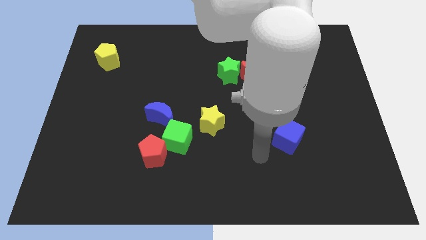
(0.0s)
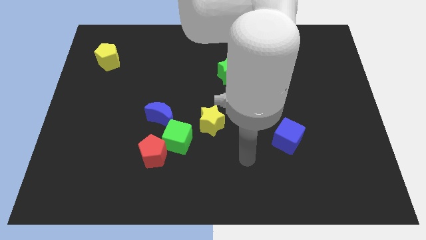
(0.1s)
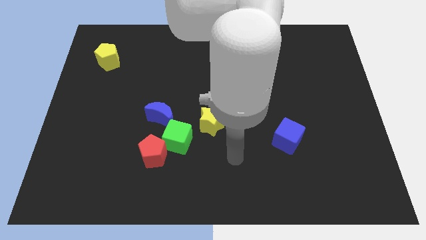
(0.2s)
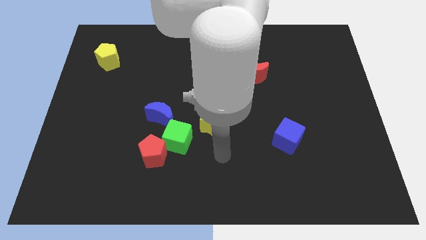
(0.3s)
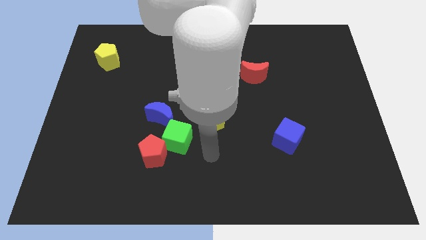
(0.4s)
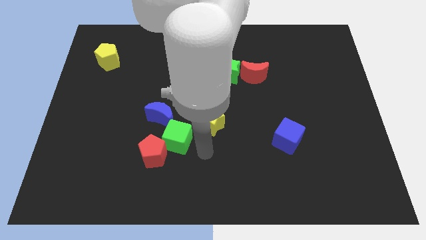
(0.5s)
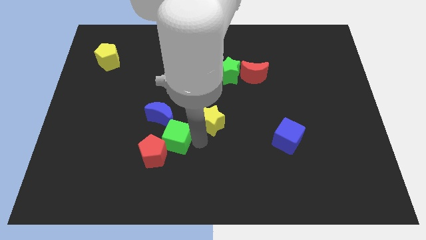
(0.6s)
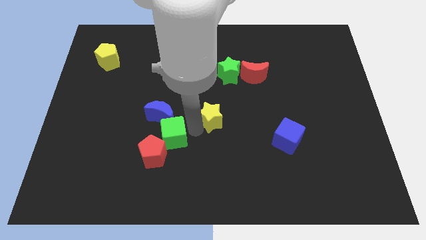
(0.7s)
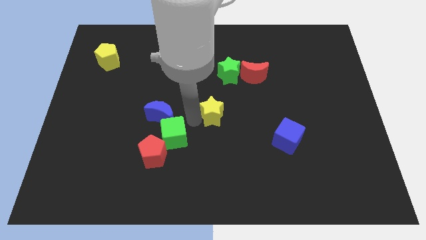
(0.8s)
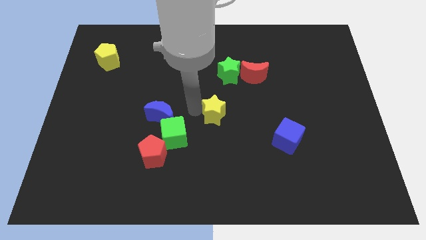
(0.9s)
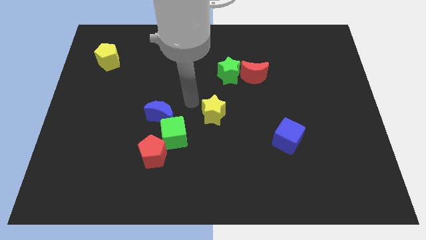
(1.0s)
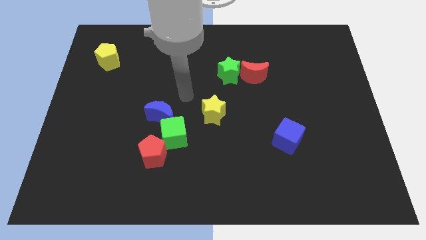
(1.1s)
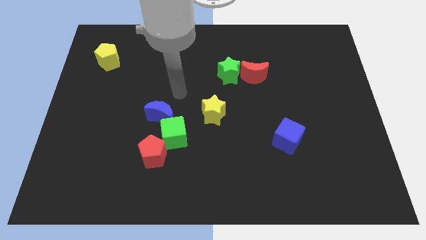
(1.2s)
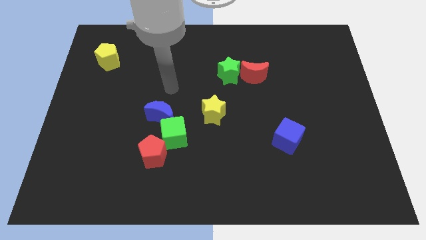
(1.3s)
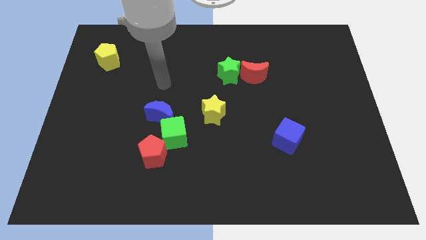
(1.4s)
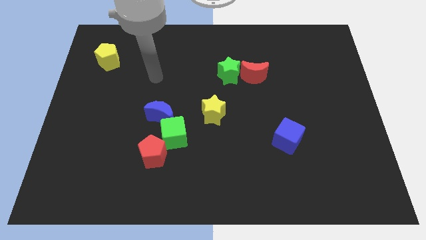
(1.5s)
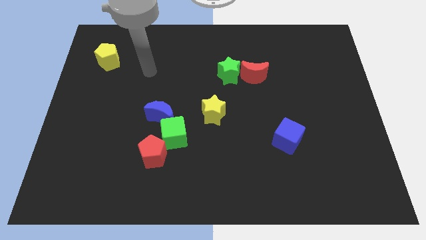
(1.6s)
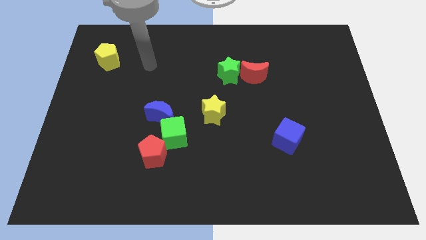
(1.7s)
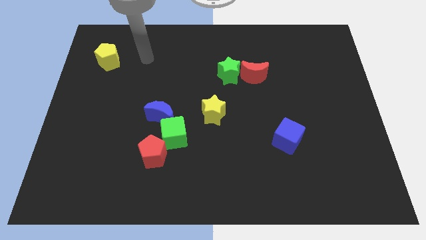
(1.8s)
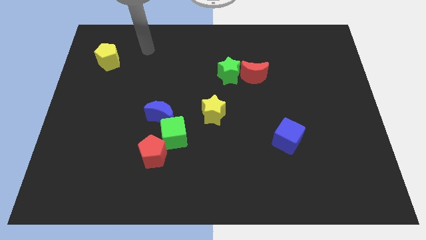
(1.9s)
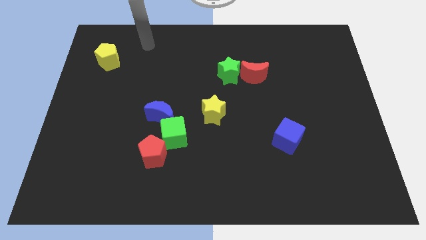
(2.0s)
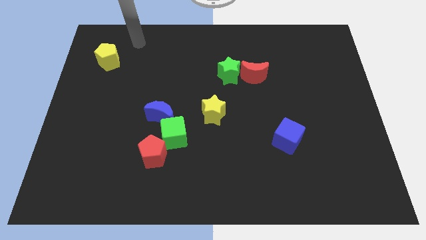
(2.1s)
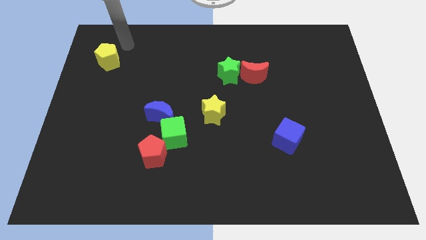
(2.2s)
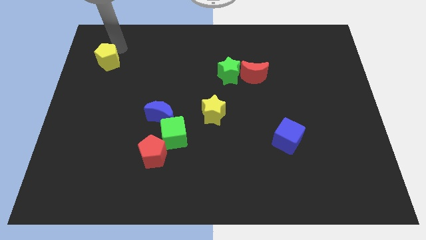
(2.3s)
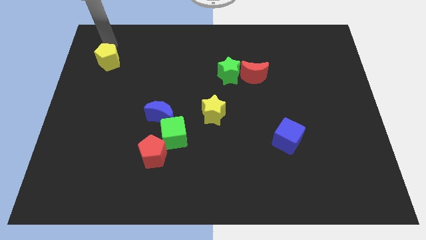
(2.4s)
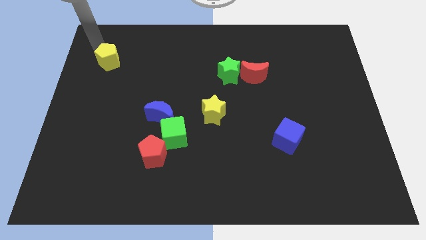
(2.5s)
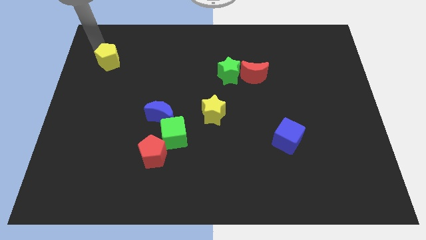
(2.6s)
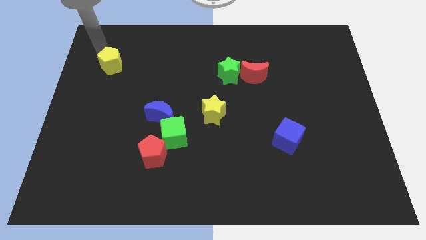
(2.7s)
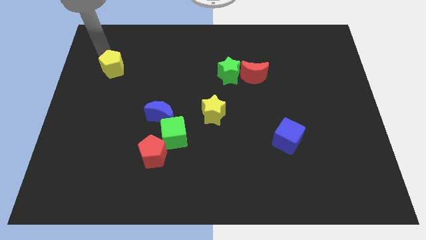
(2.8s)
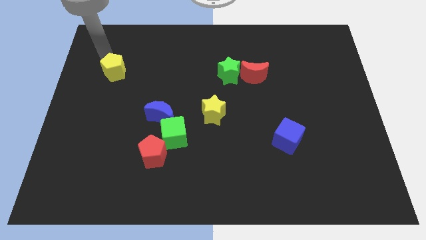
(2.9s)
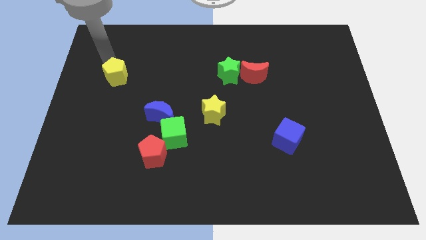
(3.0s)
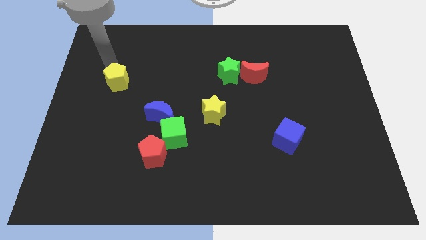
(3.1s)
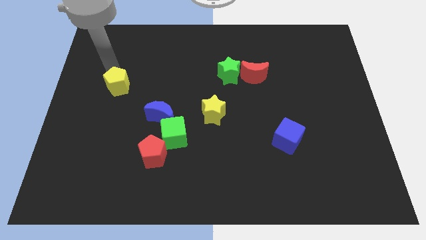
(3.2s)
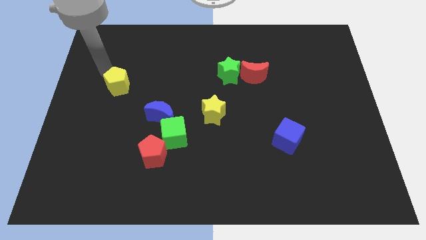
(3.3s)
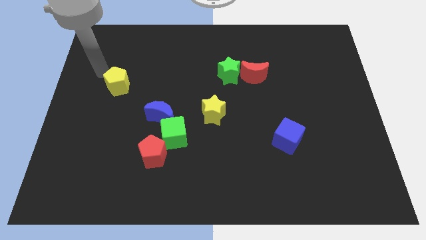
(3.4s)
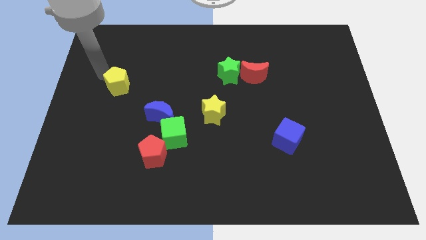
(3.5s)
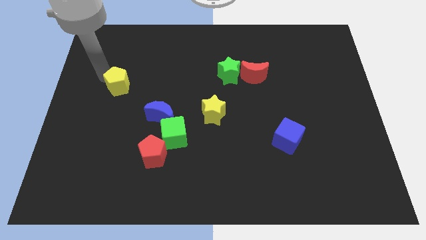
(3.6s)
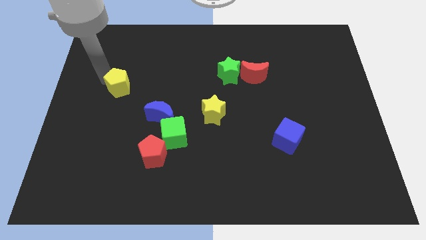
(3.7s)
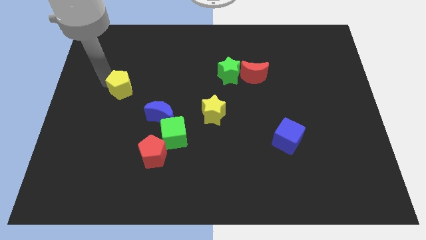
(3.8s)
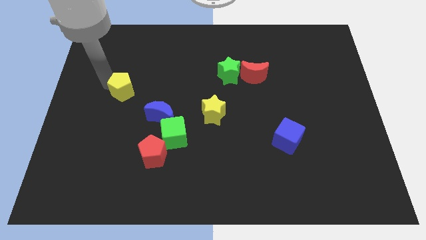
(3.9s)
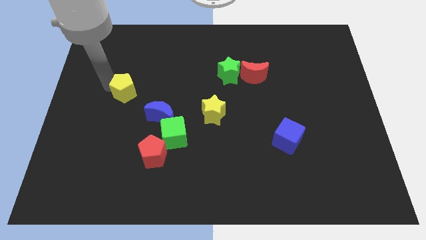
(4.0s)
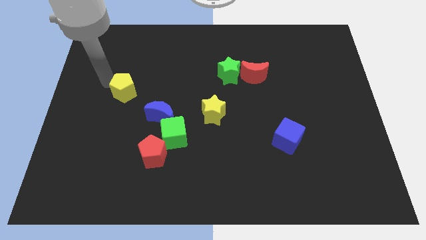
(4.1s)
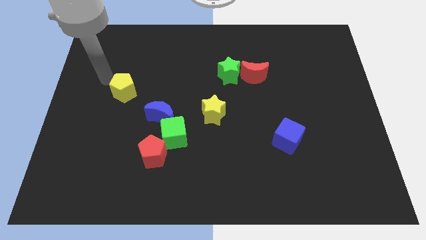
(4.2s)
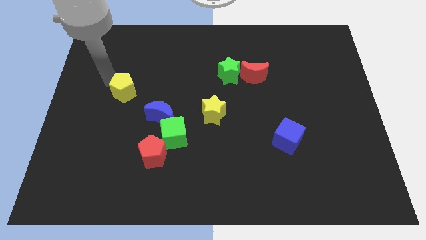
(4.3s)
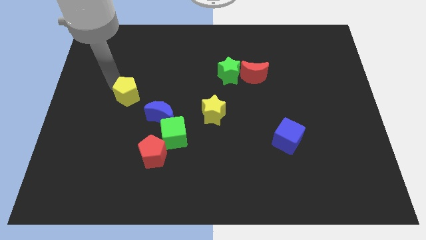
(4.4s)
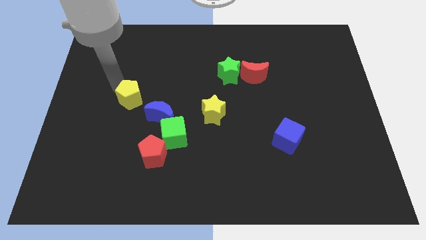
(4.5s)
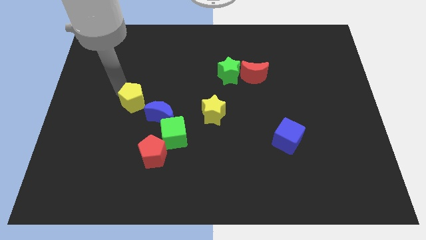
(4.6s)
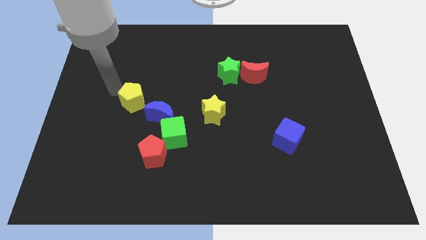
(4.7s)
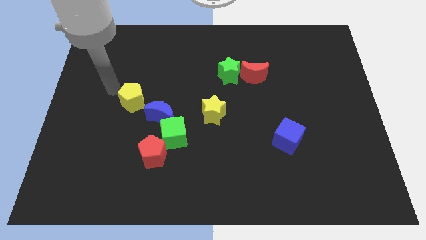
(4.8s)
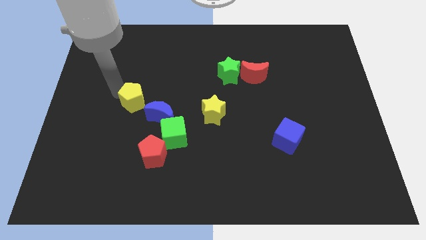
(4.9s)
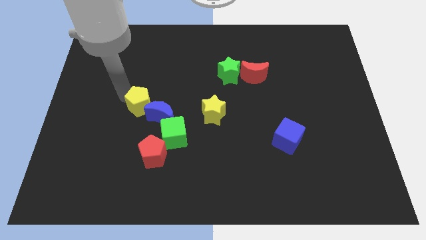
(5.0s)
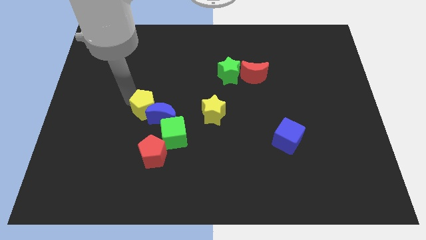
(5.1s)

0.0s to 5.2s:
move the yellow pentagon towards the blue moon

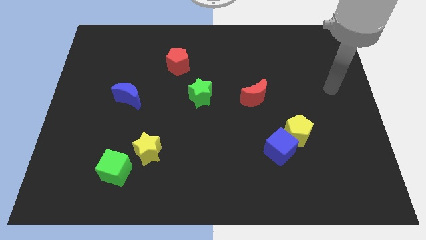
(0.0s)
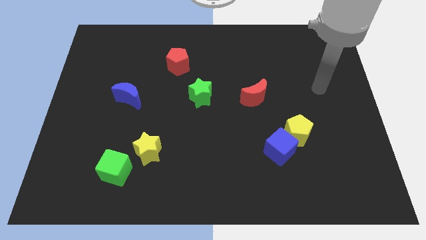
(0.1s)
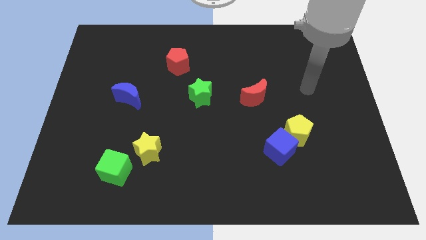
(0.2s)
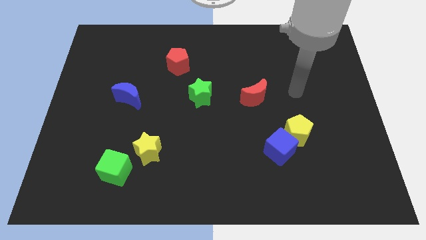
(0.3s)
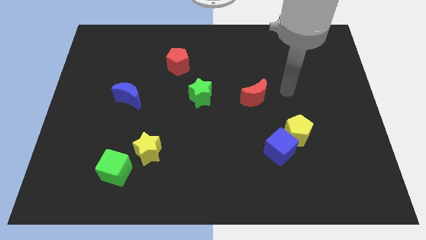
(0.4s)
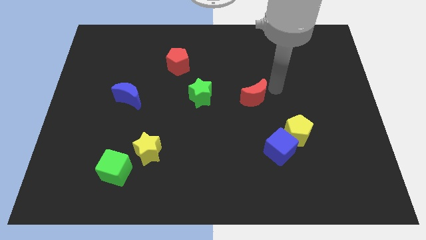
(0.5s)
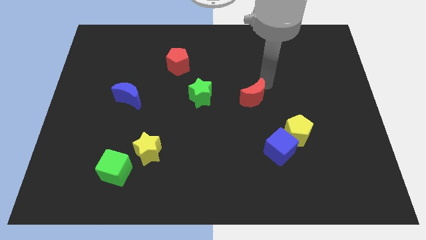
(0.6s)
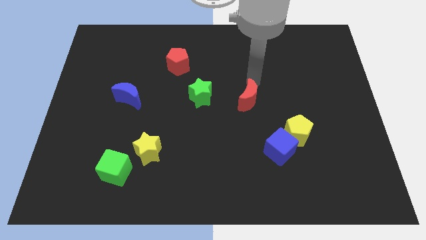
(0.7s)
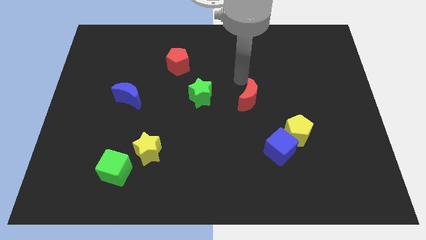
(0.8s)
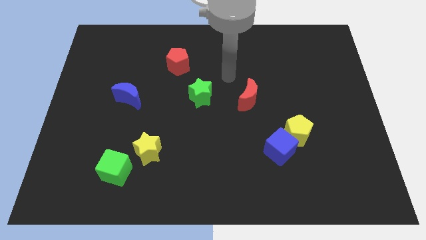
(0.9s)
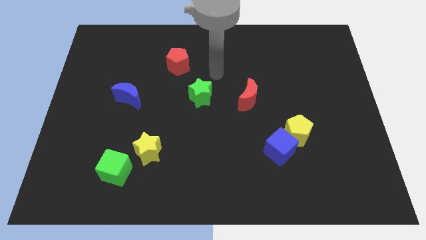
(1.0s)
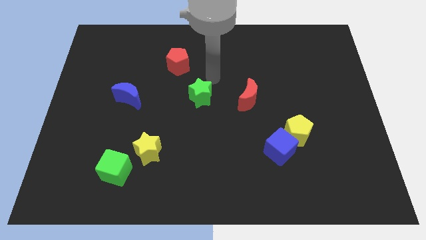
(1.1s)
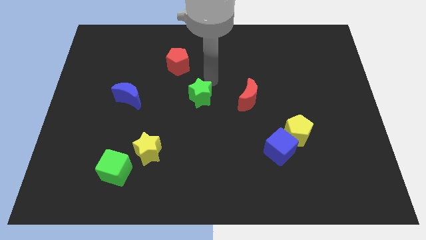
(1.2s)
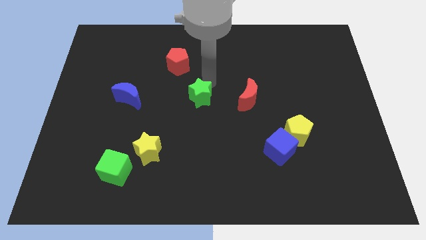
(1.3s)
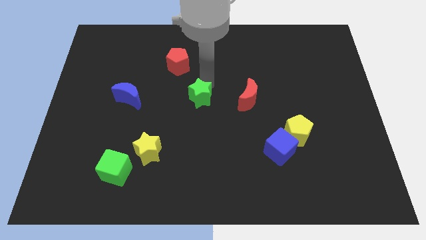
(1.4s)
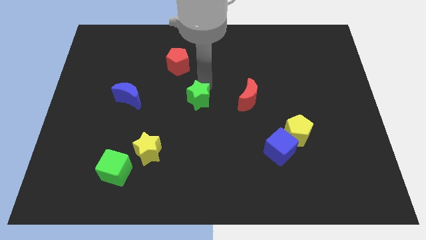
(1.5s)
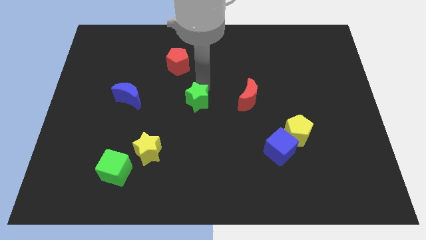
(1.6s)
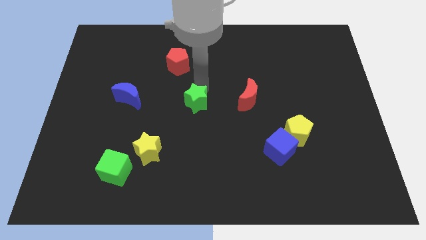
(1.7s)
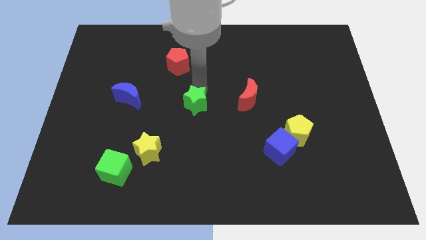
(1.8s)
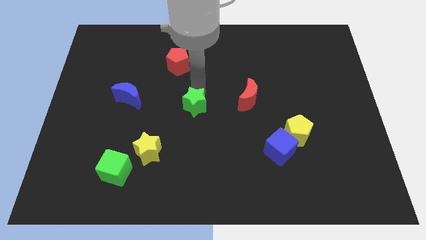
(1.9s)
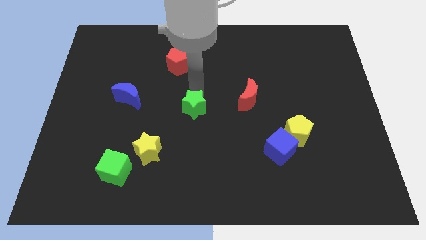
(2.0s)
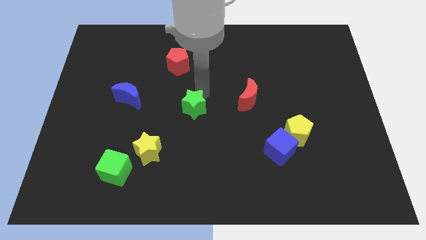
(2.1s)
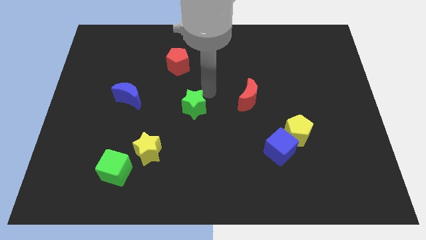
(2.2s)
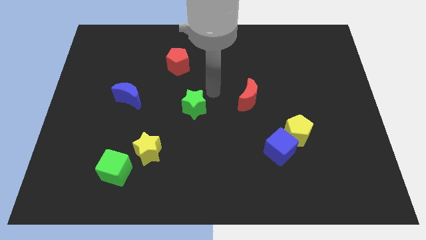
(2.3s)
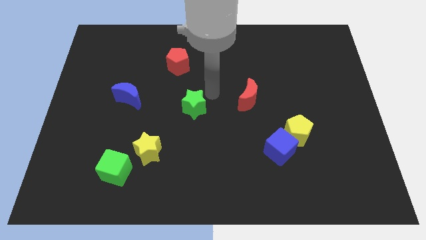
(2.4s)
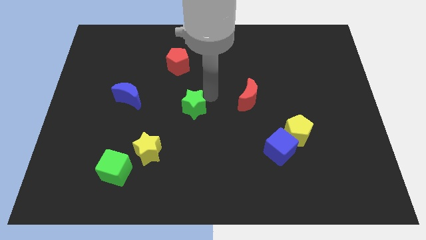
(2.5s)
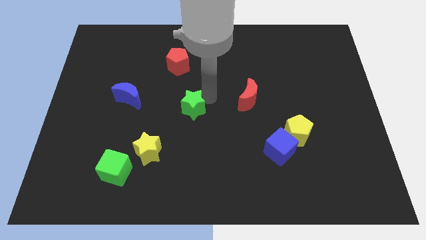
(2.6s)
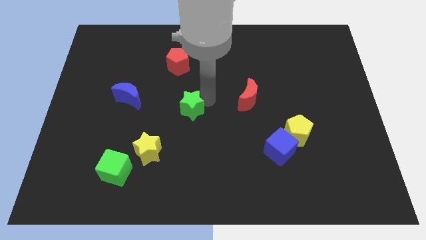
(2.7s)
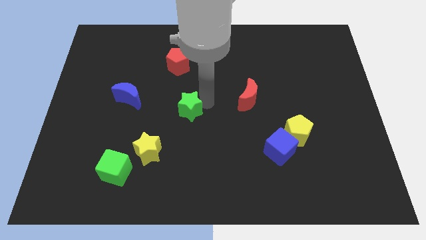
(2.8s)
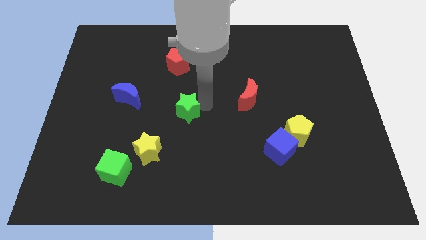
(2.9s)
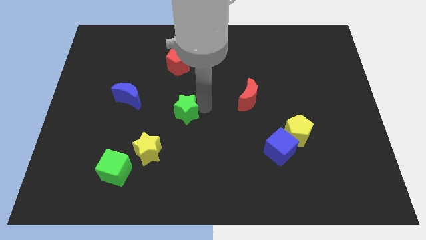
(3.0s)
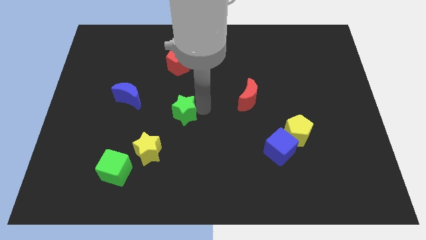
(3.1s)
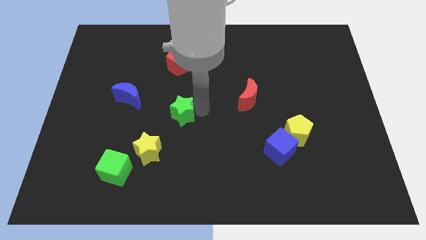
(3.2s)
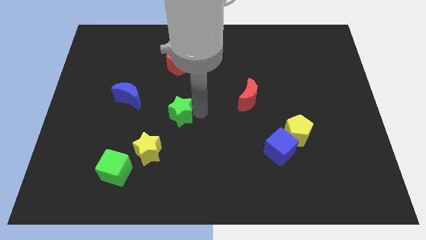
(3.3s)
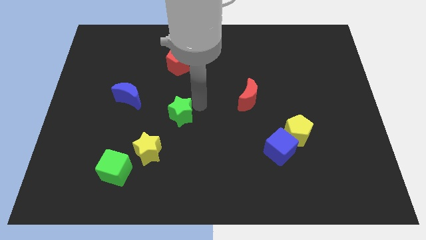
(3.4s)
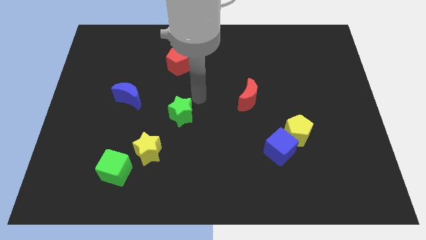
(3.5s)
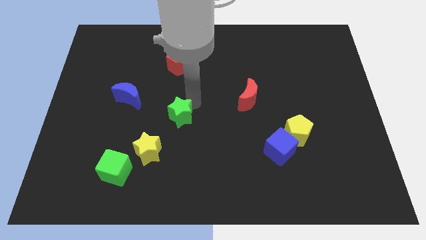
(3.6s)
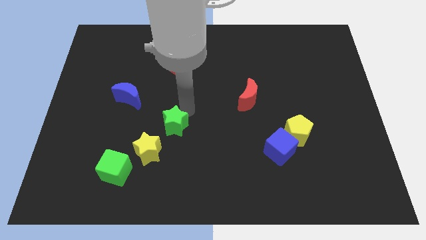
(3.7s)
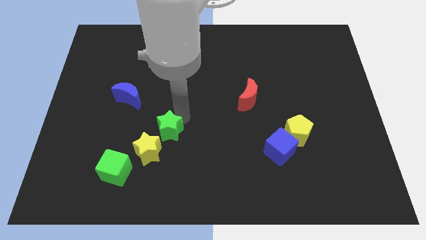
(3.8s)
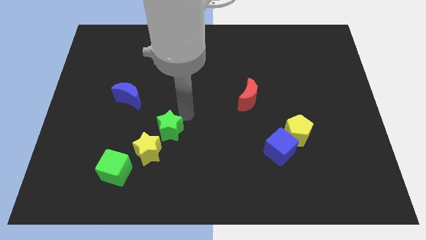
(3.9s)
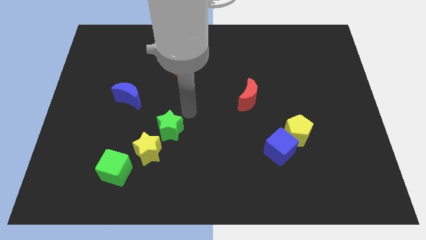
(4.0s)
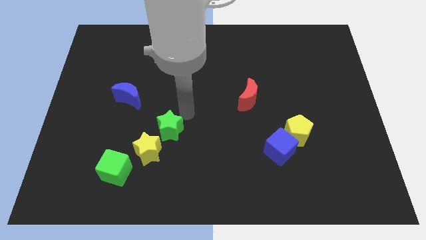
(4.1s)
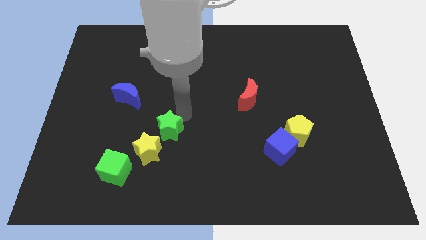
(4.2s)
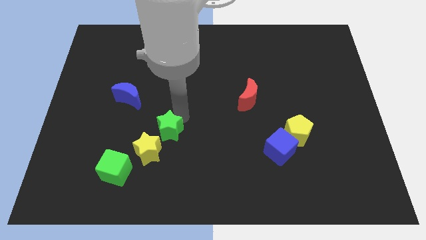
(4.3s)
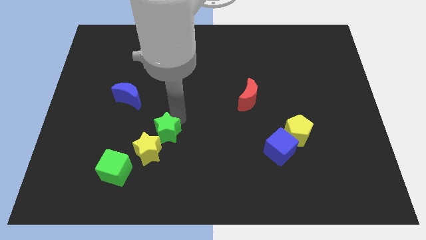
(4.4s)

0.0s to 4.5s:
slide the green star close to the yellow star
